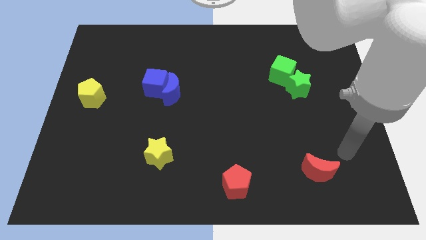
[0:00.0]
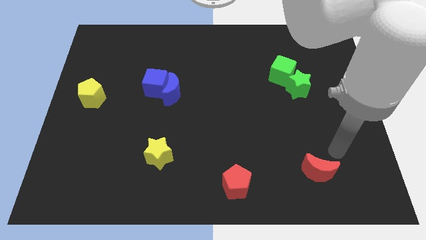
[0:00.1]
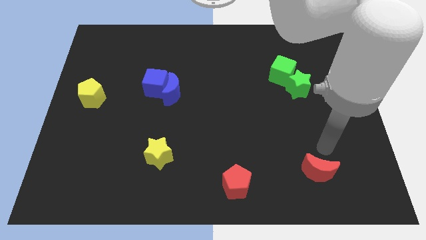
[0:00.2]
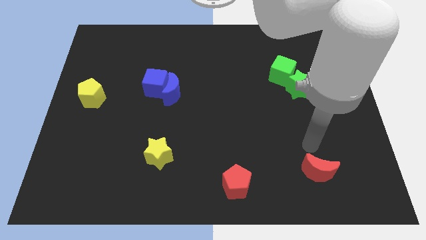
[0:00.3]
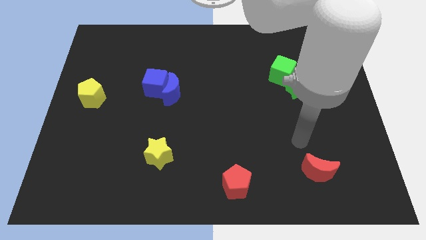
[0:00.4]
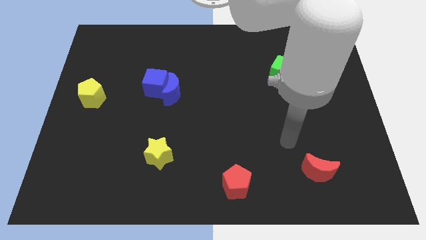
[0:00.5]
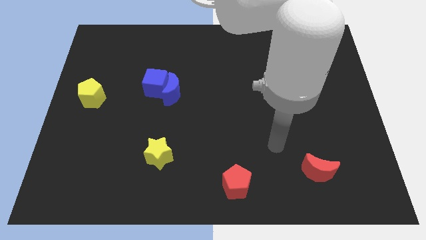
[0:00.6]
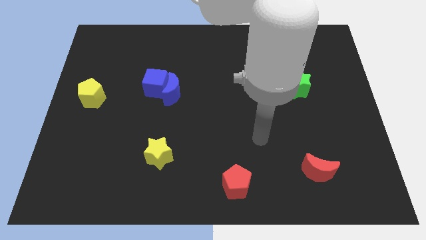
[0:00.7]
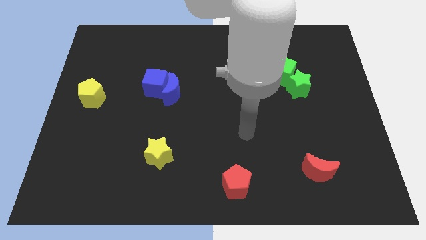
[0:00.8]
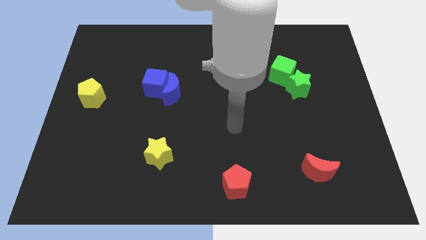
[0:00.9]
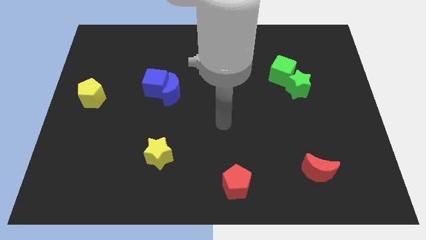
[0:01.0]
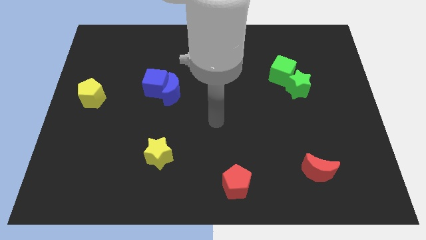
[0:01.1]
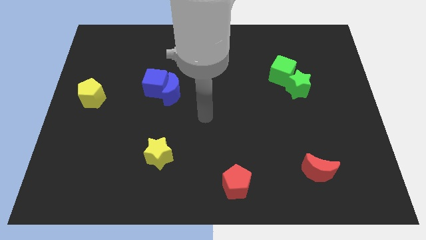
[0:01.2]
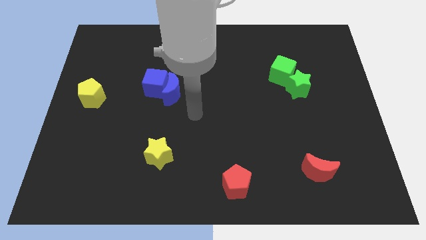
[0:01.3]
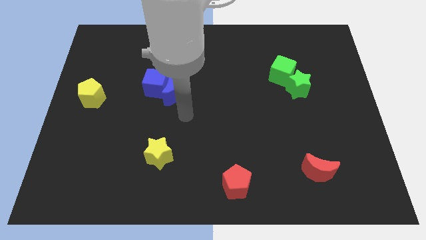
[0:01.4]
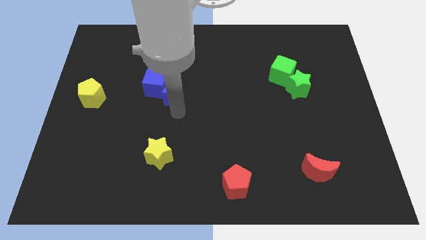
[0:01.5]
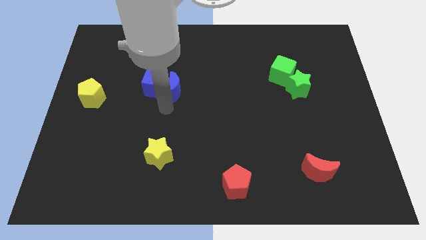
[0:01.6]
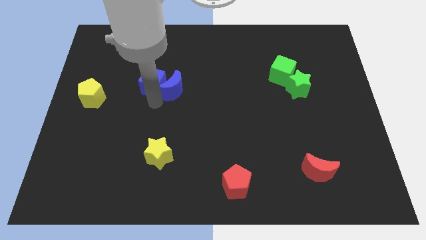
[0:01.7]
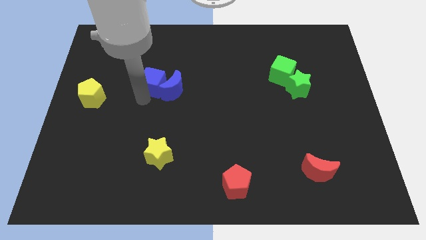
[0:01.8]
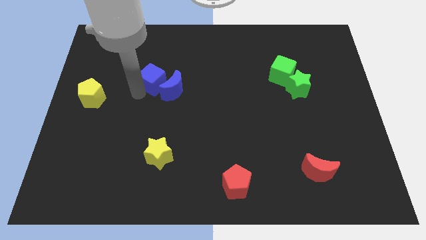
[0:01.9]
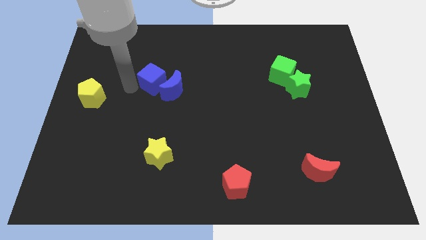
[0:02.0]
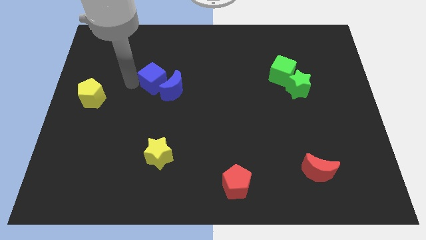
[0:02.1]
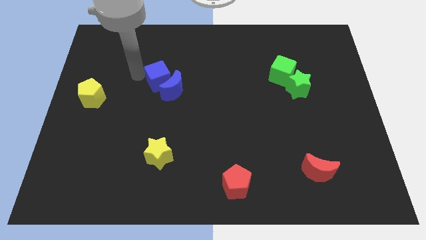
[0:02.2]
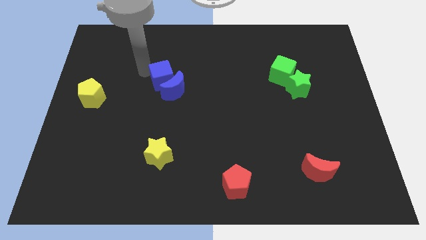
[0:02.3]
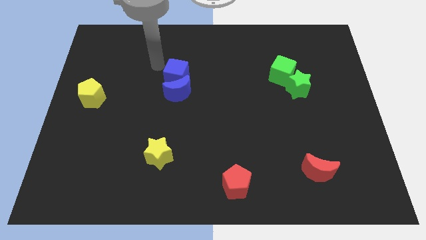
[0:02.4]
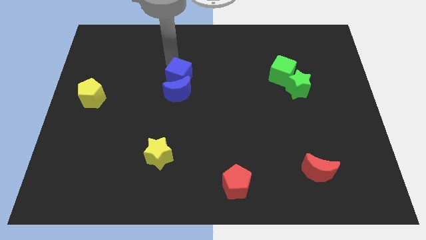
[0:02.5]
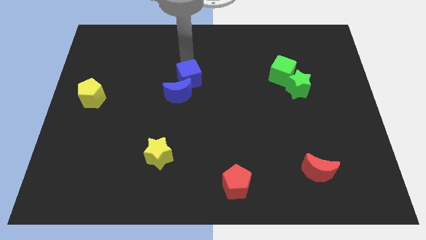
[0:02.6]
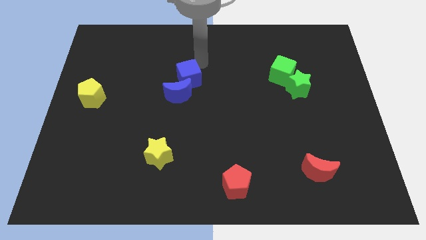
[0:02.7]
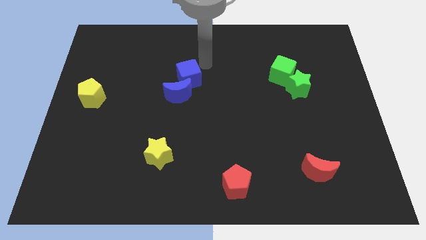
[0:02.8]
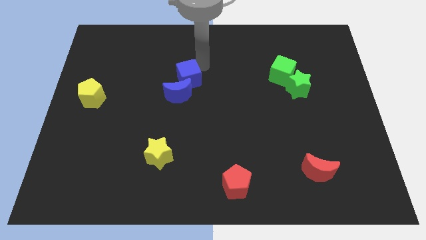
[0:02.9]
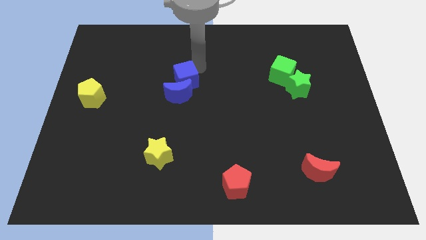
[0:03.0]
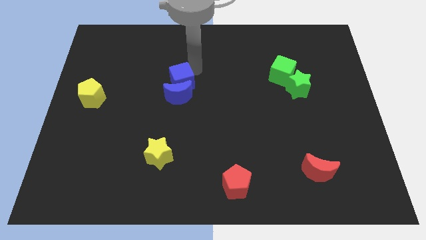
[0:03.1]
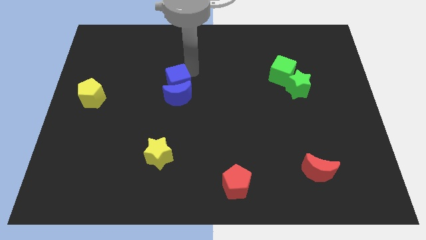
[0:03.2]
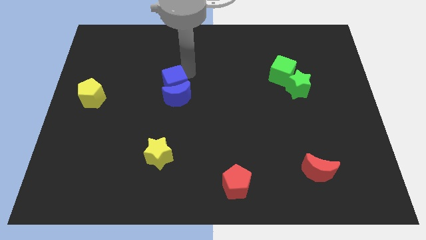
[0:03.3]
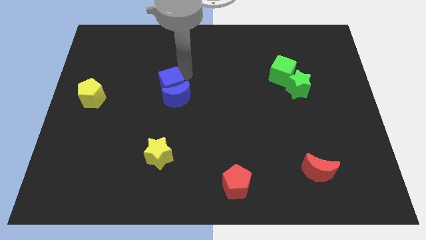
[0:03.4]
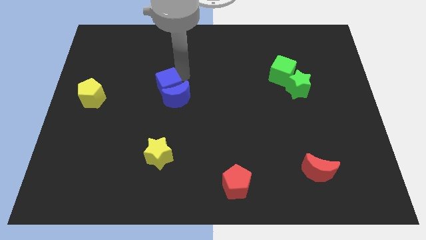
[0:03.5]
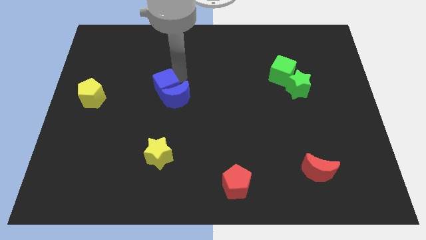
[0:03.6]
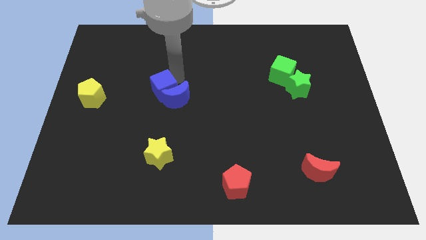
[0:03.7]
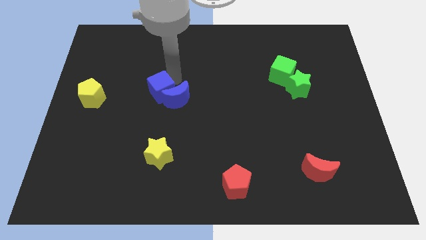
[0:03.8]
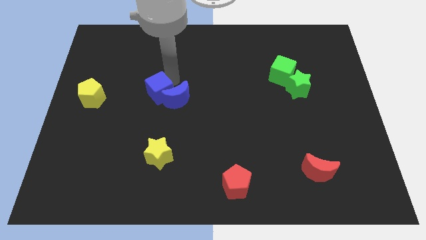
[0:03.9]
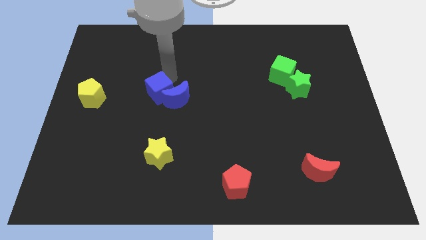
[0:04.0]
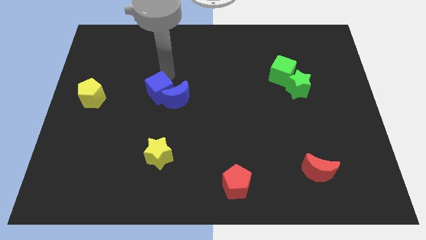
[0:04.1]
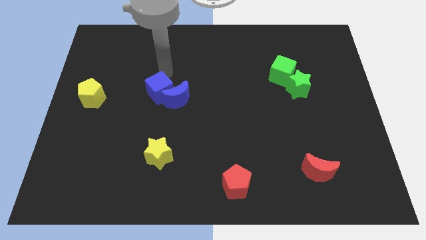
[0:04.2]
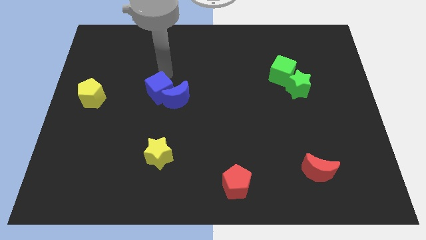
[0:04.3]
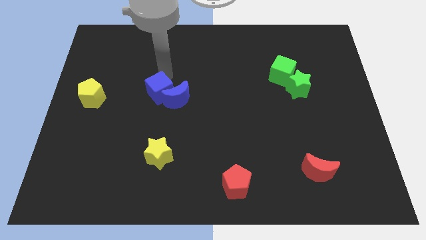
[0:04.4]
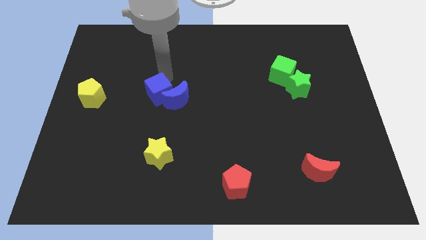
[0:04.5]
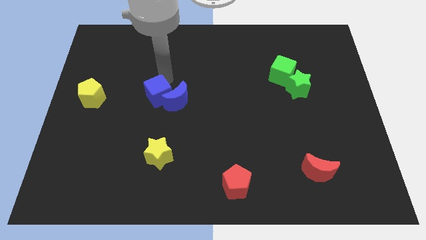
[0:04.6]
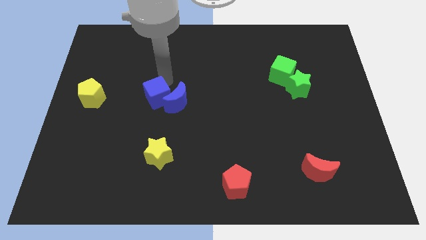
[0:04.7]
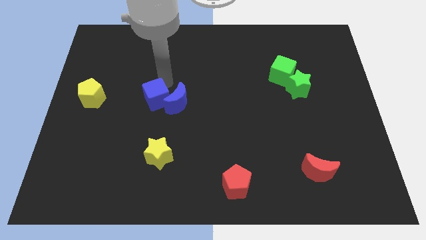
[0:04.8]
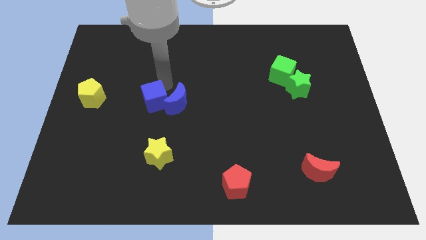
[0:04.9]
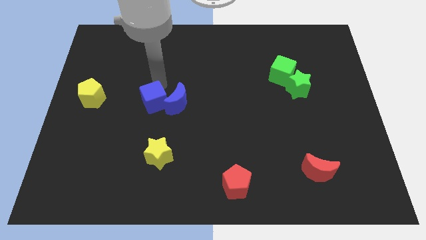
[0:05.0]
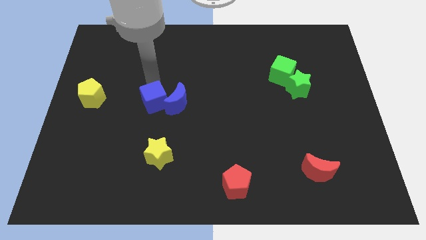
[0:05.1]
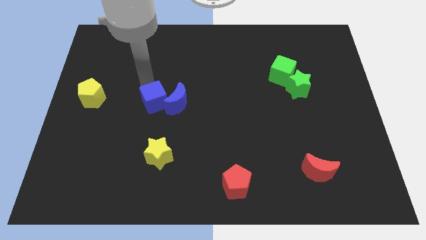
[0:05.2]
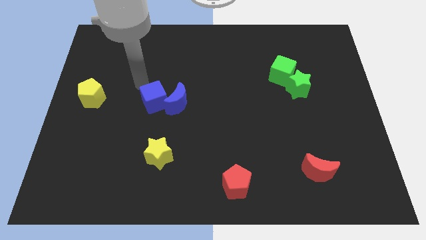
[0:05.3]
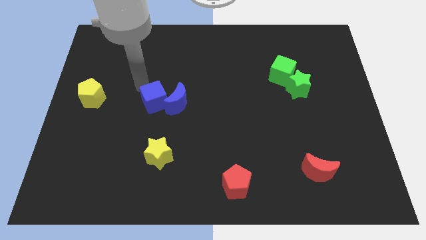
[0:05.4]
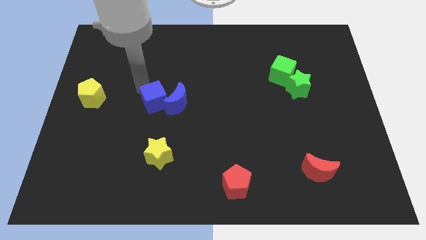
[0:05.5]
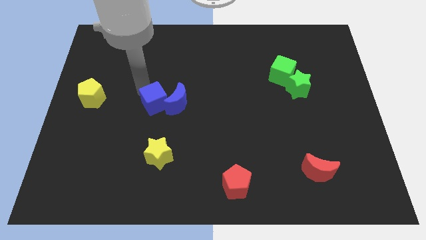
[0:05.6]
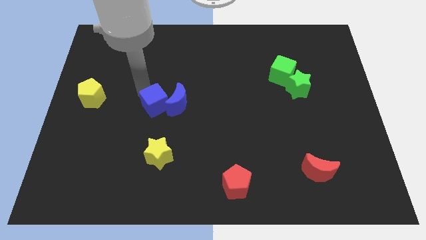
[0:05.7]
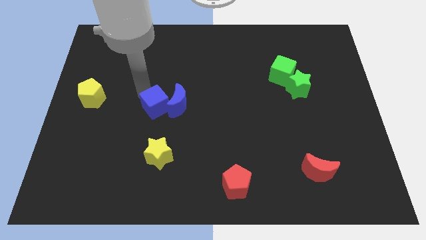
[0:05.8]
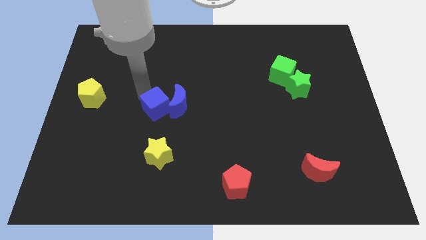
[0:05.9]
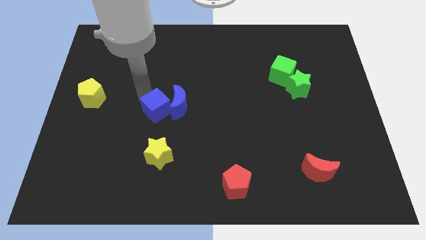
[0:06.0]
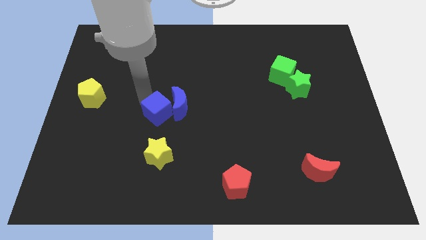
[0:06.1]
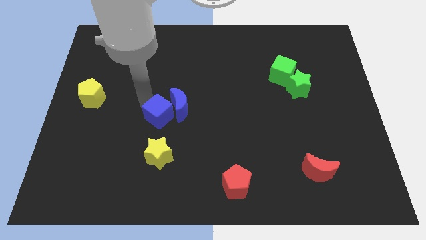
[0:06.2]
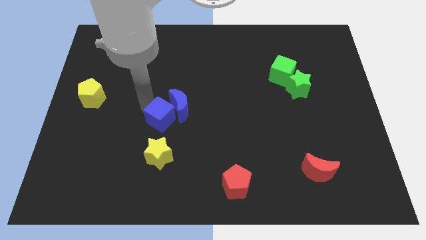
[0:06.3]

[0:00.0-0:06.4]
move the blue cube slightly downwards and then right

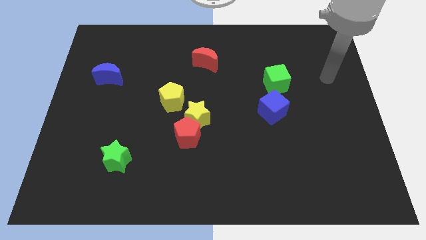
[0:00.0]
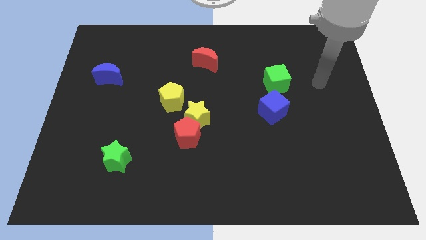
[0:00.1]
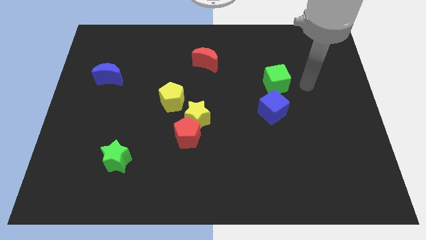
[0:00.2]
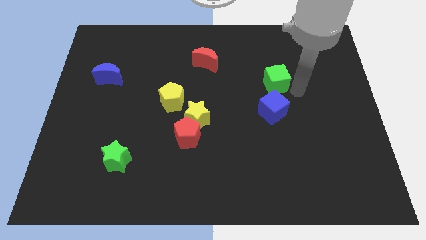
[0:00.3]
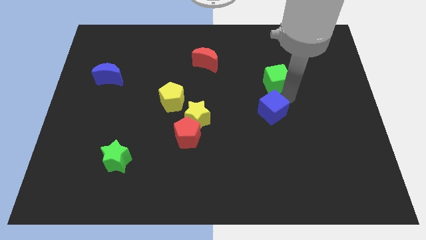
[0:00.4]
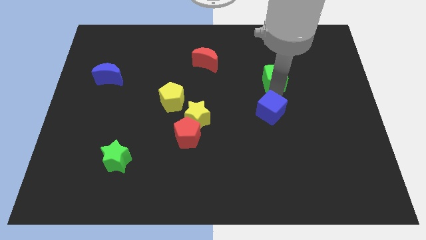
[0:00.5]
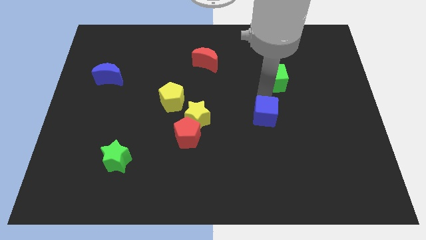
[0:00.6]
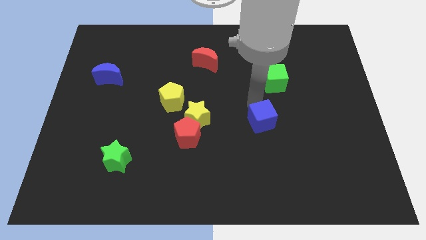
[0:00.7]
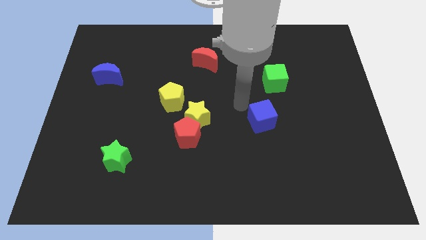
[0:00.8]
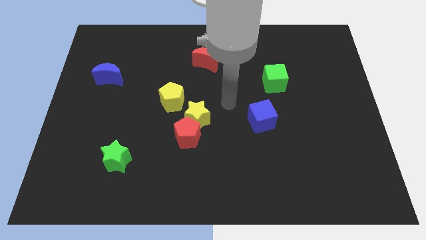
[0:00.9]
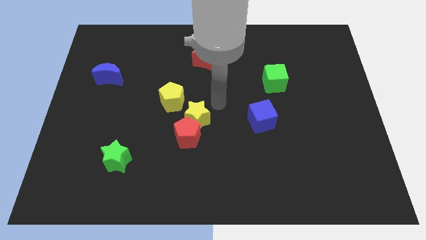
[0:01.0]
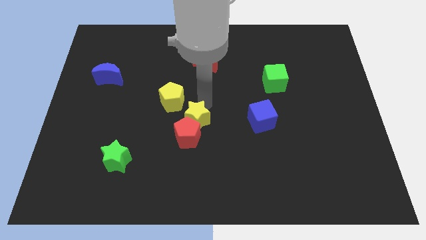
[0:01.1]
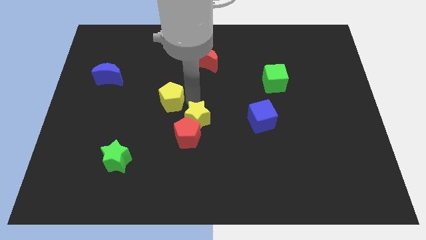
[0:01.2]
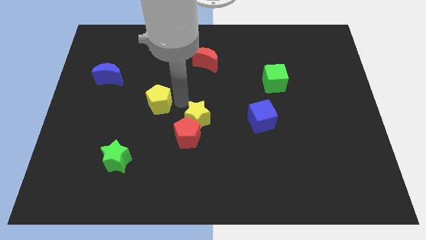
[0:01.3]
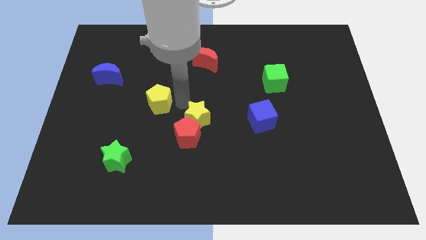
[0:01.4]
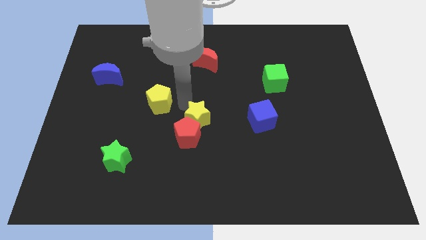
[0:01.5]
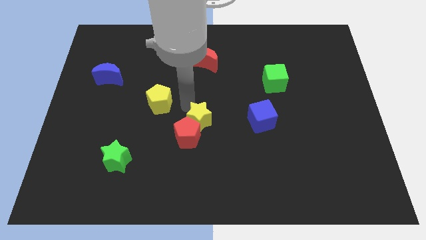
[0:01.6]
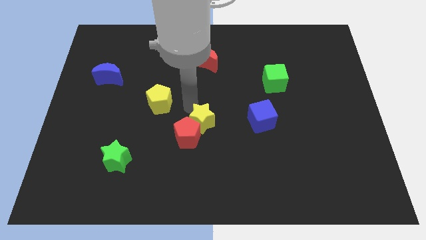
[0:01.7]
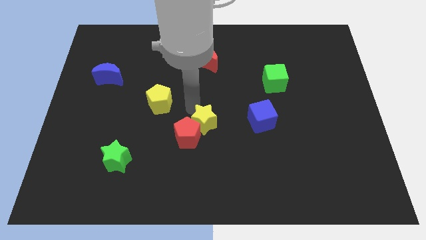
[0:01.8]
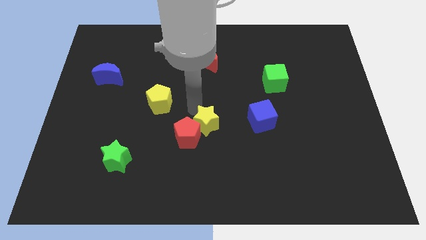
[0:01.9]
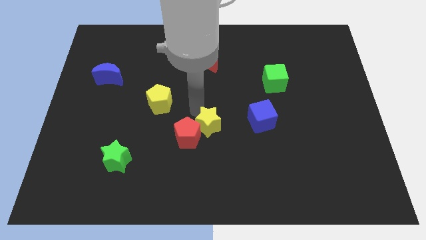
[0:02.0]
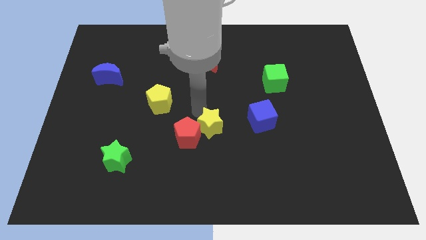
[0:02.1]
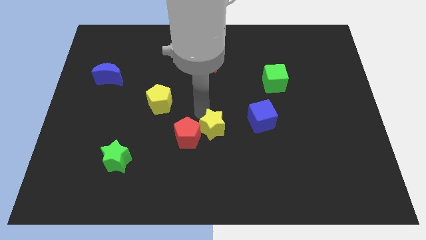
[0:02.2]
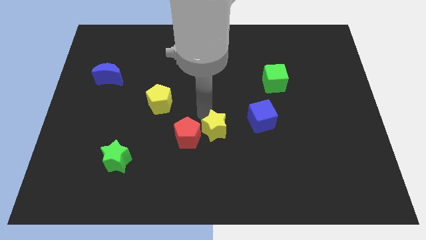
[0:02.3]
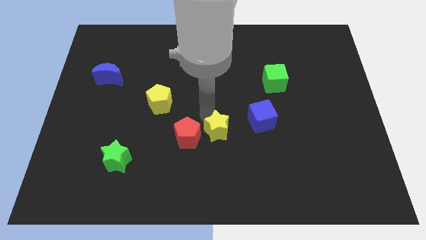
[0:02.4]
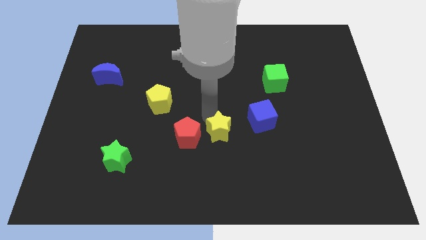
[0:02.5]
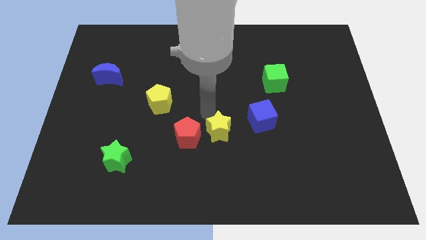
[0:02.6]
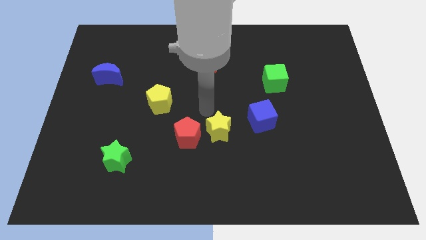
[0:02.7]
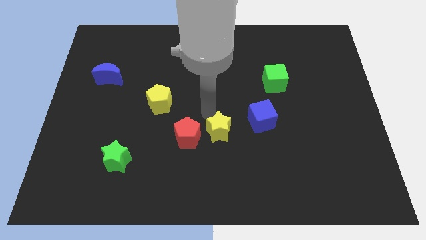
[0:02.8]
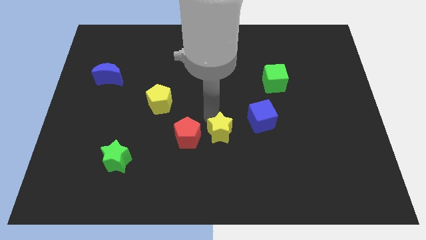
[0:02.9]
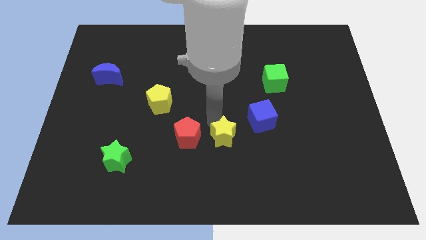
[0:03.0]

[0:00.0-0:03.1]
slightly push the yellow star downwards and then to the right
